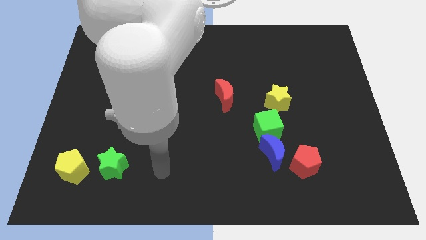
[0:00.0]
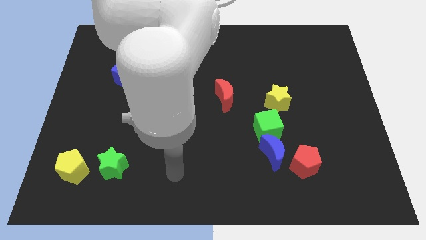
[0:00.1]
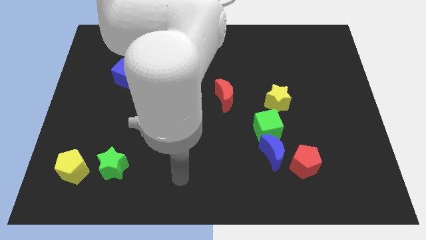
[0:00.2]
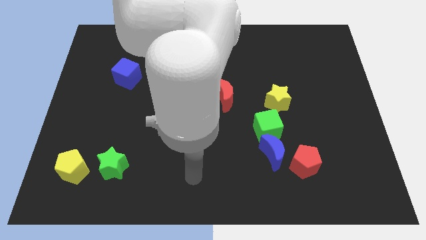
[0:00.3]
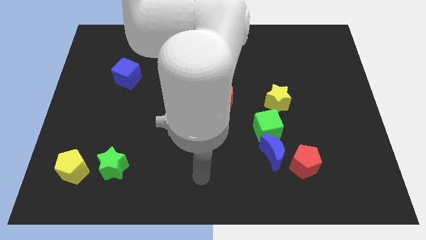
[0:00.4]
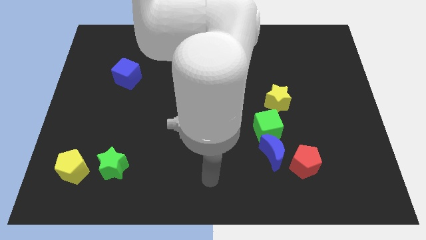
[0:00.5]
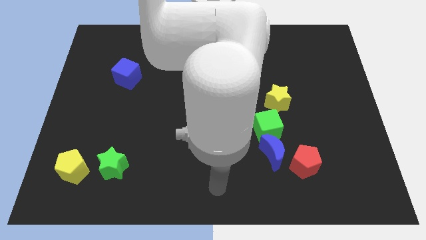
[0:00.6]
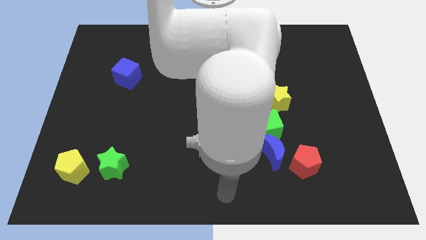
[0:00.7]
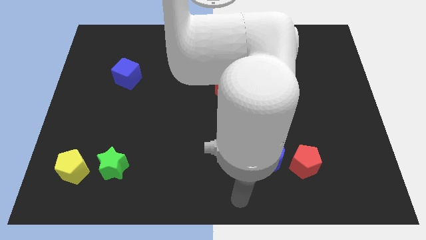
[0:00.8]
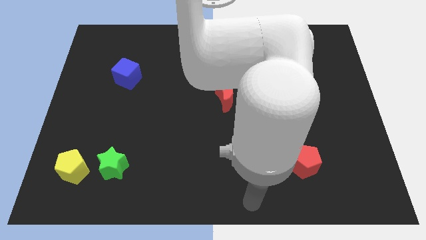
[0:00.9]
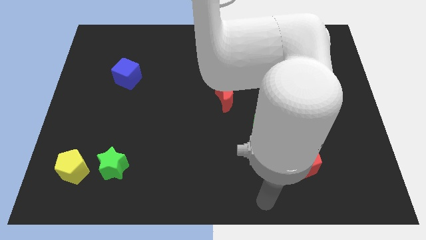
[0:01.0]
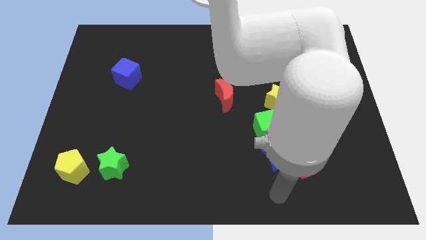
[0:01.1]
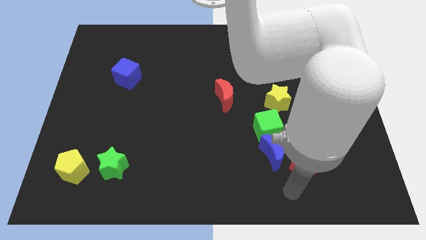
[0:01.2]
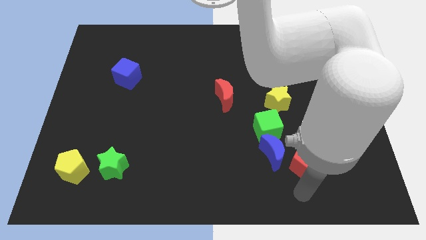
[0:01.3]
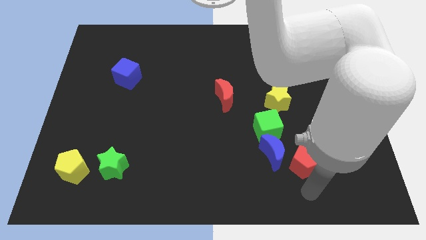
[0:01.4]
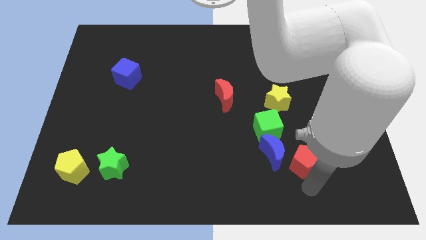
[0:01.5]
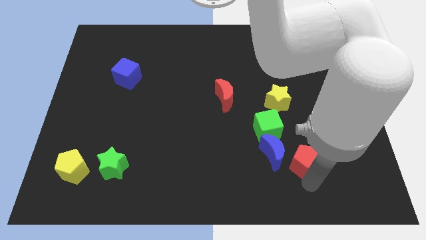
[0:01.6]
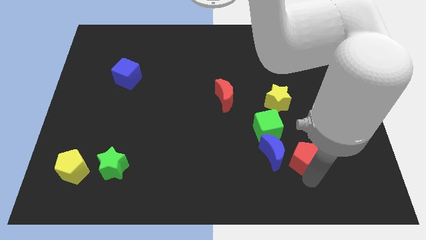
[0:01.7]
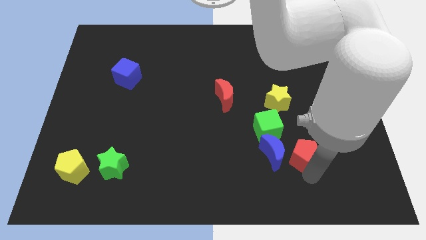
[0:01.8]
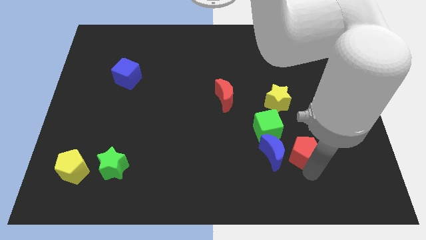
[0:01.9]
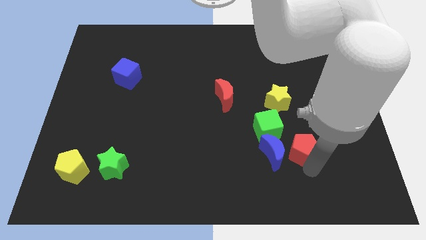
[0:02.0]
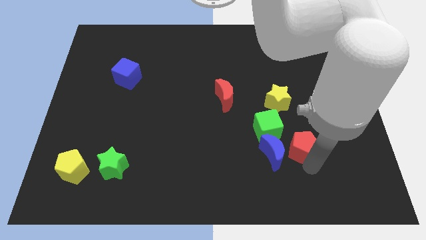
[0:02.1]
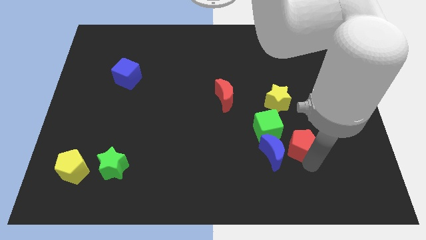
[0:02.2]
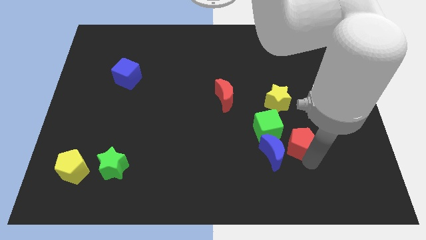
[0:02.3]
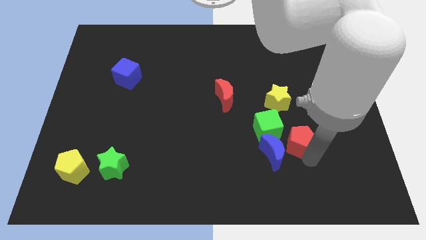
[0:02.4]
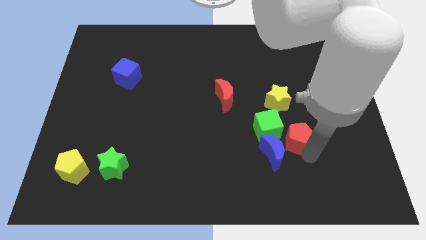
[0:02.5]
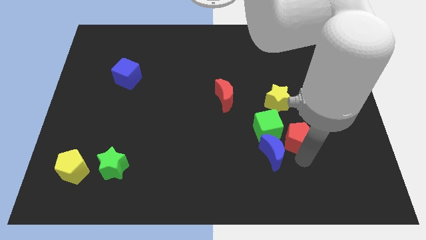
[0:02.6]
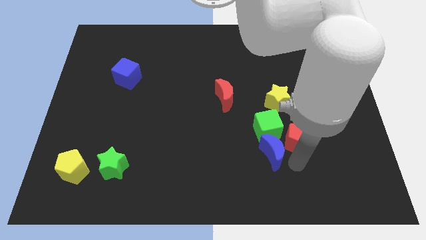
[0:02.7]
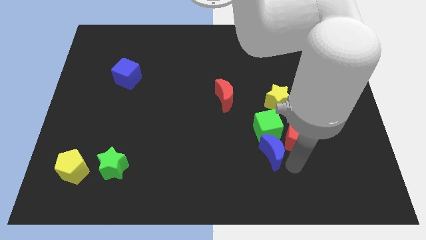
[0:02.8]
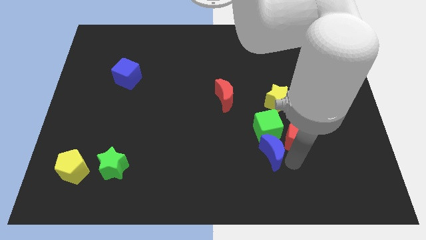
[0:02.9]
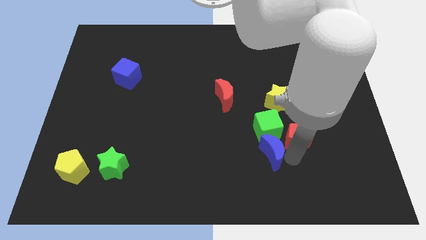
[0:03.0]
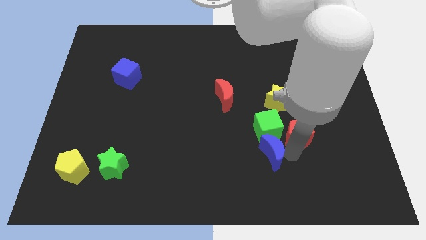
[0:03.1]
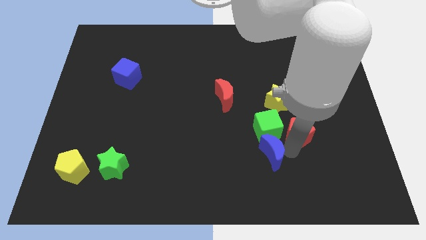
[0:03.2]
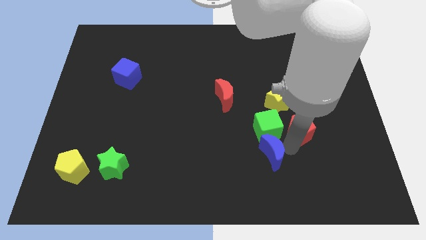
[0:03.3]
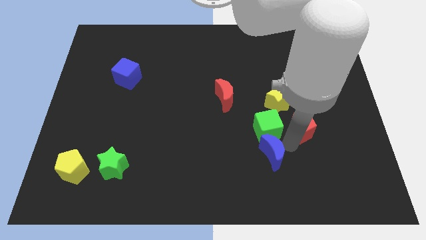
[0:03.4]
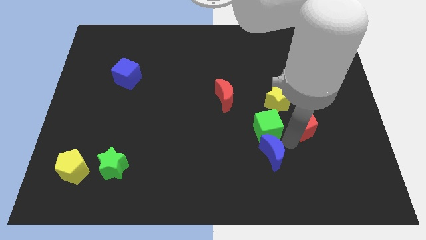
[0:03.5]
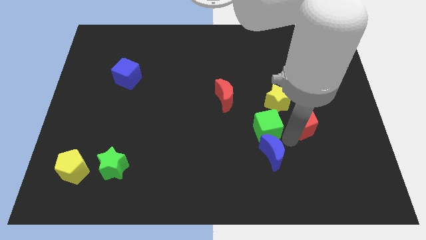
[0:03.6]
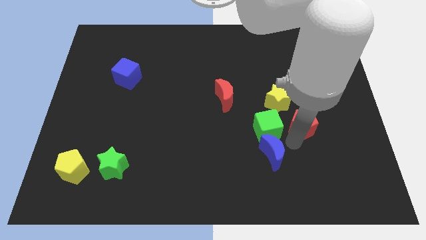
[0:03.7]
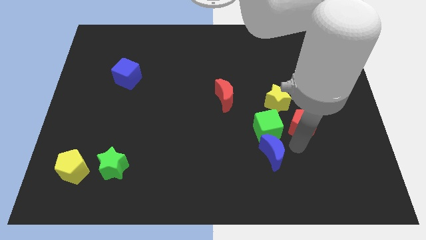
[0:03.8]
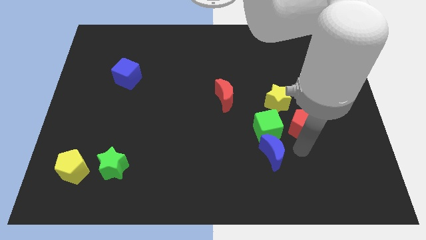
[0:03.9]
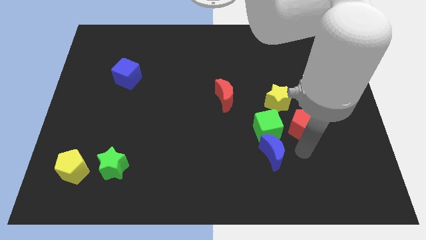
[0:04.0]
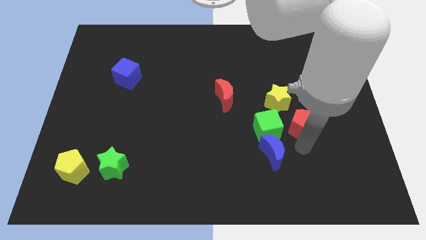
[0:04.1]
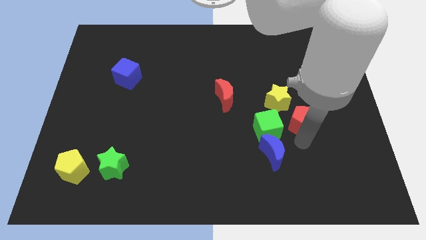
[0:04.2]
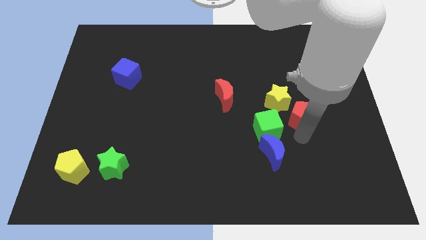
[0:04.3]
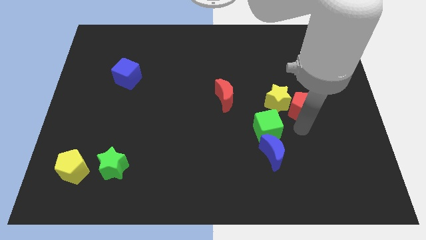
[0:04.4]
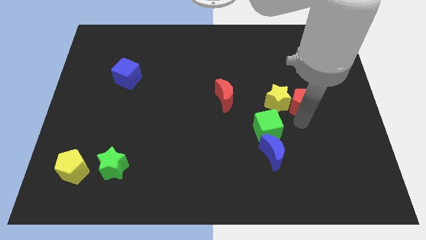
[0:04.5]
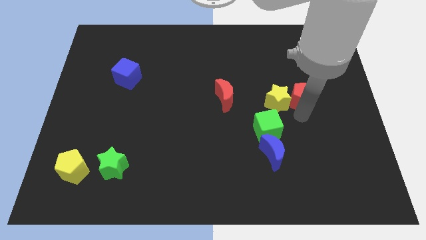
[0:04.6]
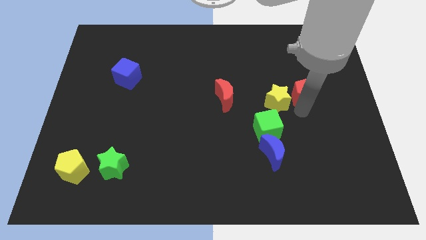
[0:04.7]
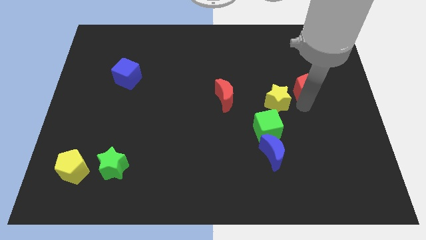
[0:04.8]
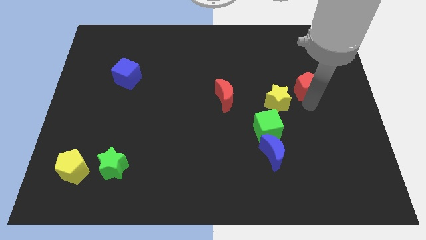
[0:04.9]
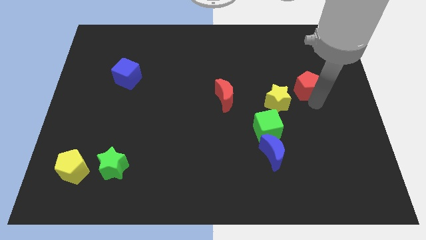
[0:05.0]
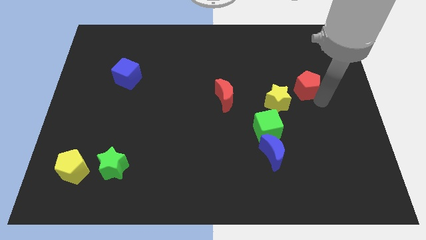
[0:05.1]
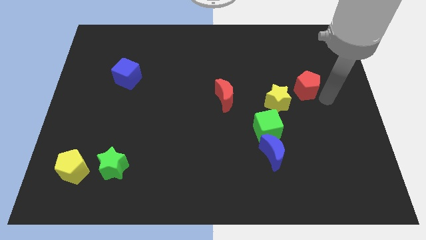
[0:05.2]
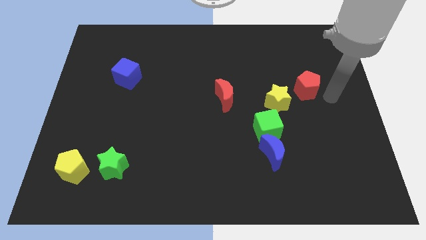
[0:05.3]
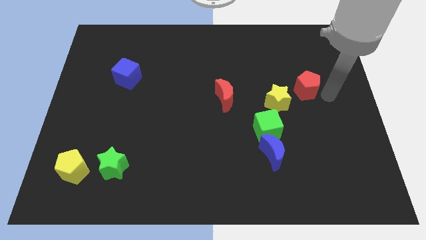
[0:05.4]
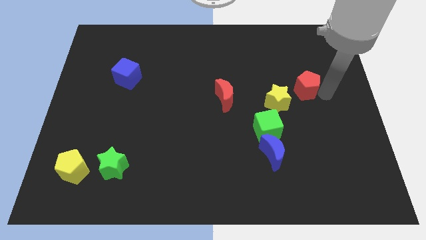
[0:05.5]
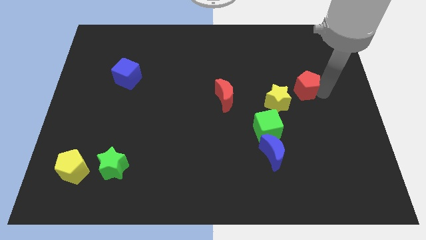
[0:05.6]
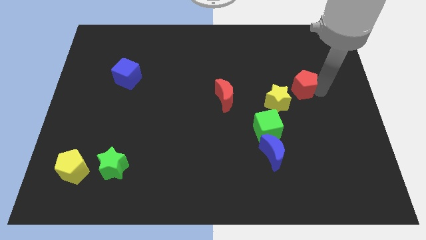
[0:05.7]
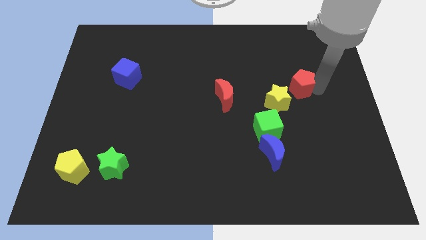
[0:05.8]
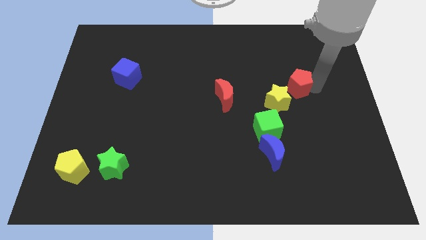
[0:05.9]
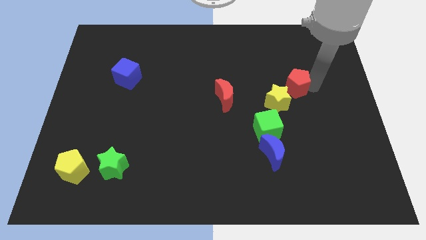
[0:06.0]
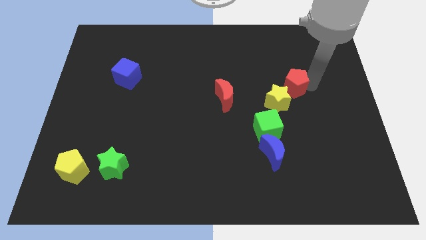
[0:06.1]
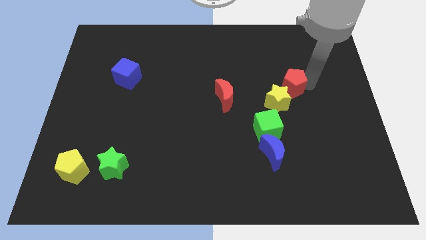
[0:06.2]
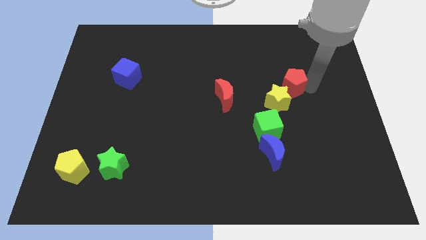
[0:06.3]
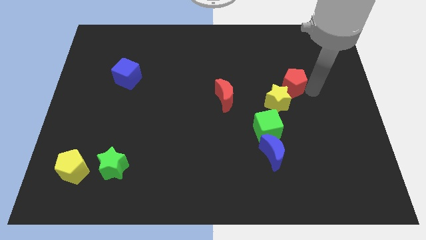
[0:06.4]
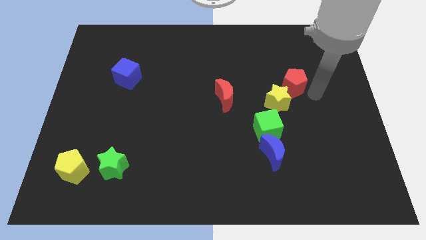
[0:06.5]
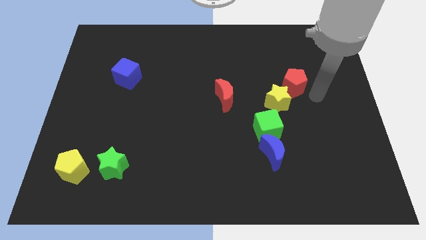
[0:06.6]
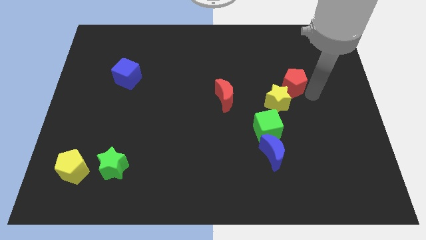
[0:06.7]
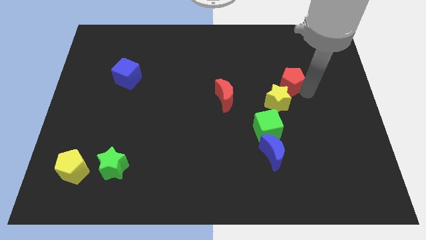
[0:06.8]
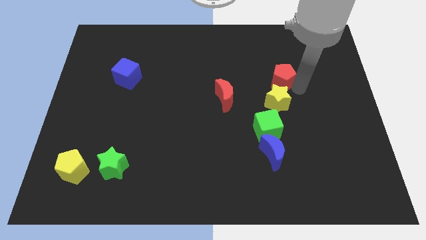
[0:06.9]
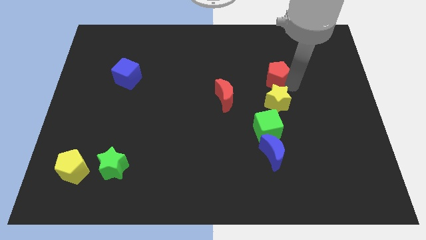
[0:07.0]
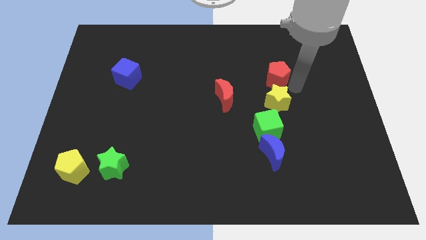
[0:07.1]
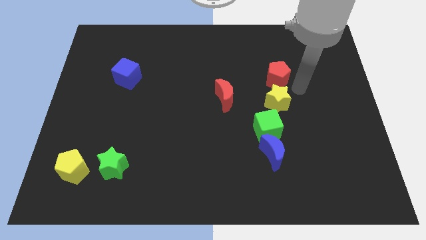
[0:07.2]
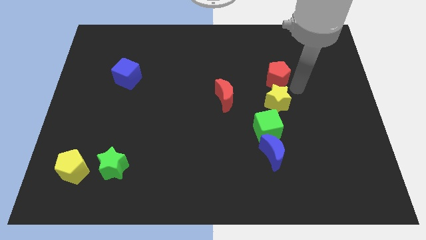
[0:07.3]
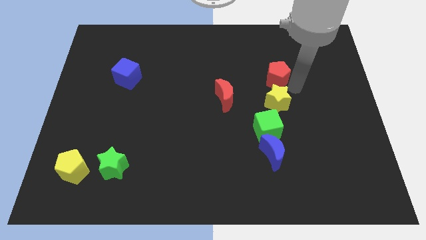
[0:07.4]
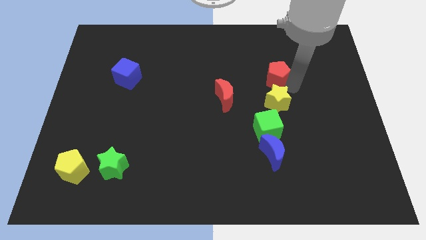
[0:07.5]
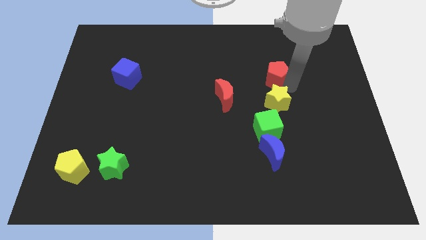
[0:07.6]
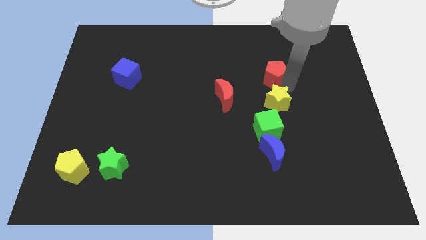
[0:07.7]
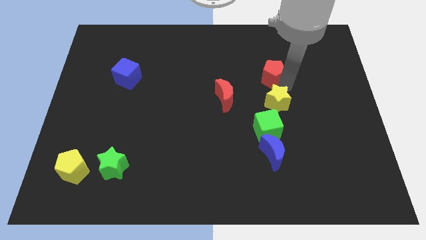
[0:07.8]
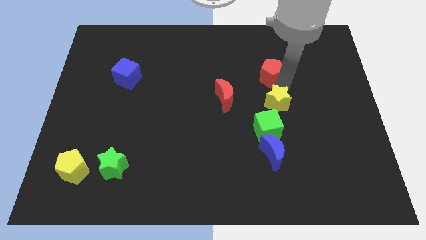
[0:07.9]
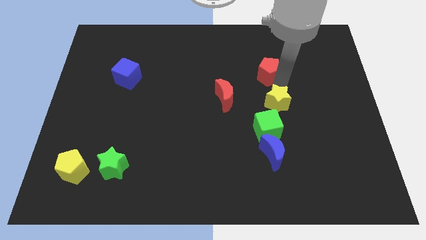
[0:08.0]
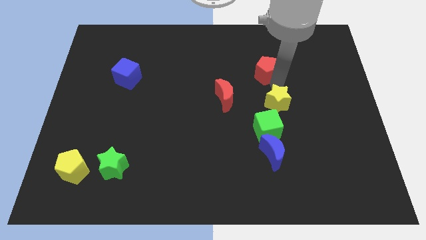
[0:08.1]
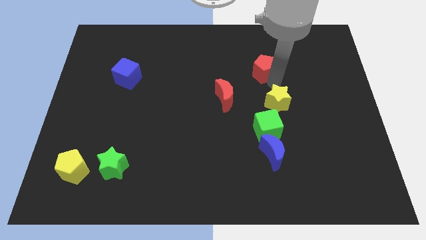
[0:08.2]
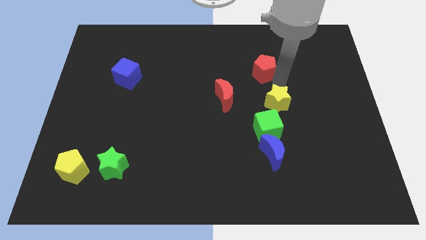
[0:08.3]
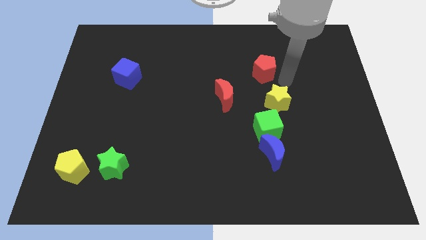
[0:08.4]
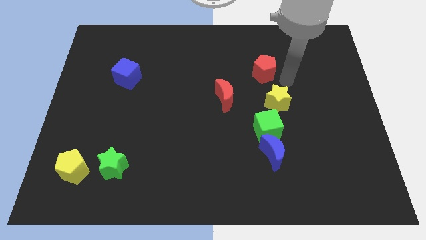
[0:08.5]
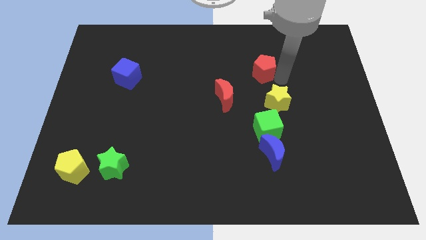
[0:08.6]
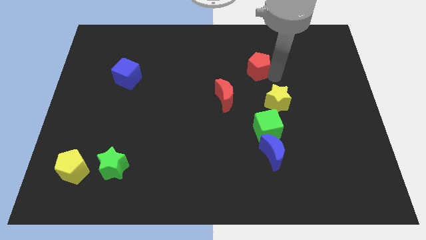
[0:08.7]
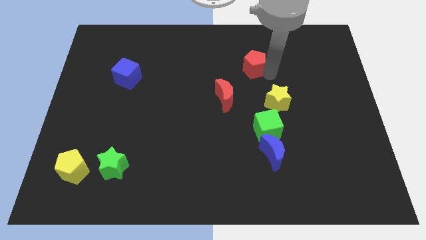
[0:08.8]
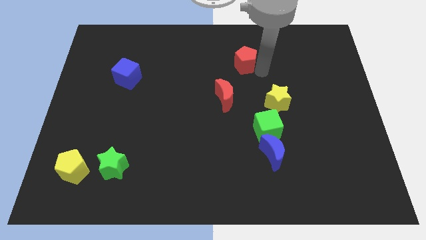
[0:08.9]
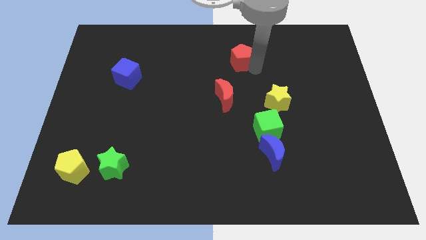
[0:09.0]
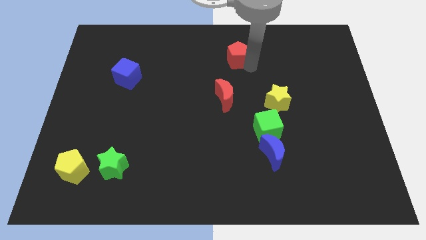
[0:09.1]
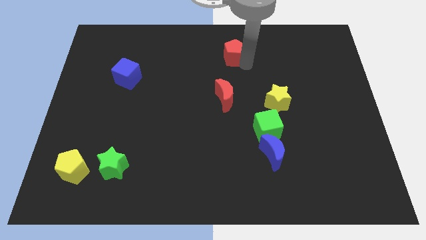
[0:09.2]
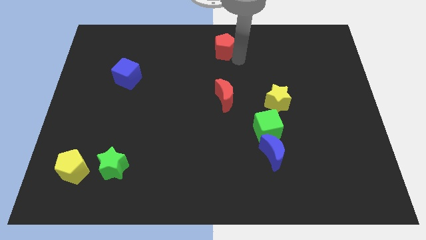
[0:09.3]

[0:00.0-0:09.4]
put the red pentagon to the top
